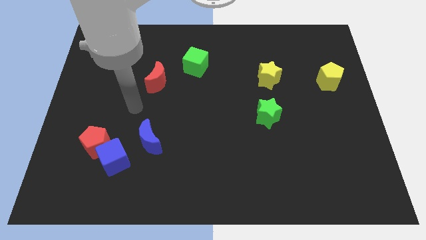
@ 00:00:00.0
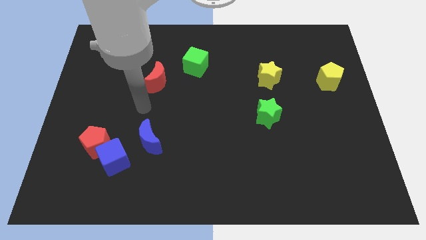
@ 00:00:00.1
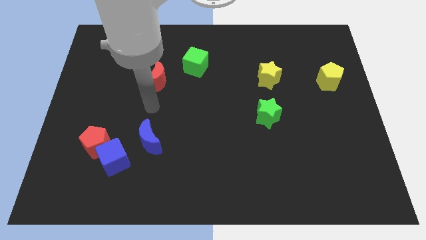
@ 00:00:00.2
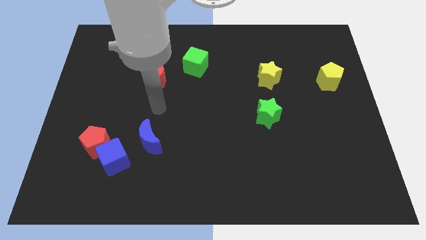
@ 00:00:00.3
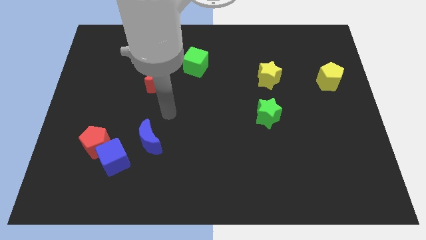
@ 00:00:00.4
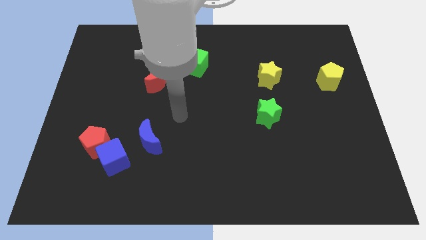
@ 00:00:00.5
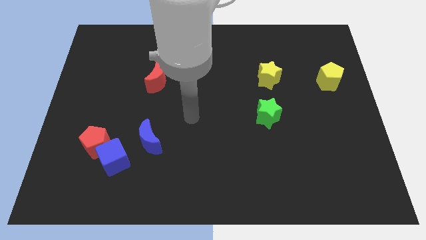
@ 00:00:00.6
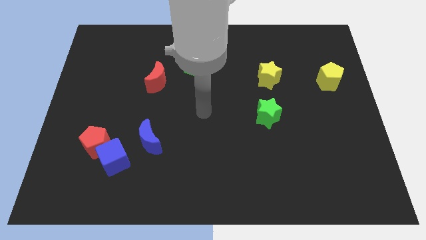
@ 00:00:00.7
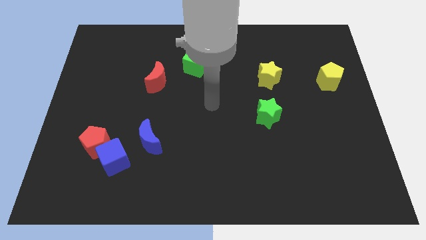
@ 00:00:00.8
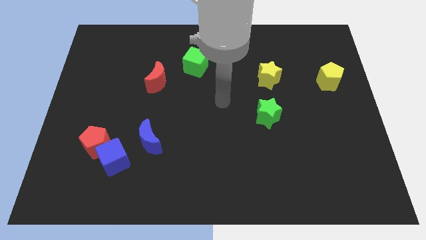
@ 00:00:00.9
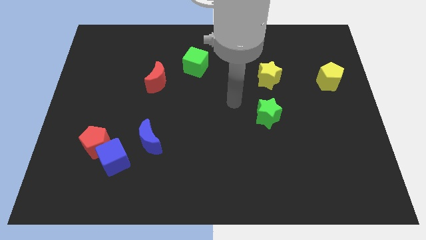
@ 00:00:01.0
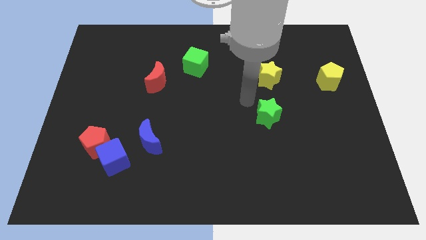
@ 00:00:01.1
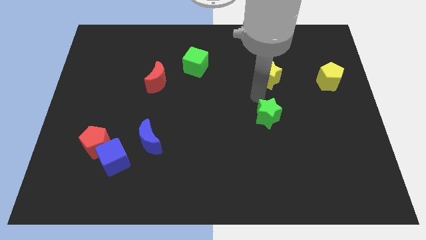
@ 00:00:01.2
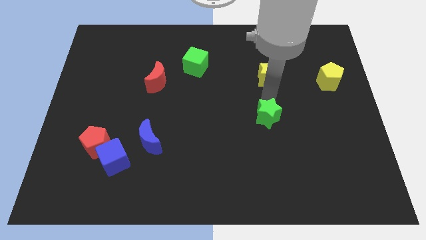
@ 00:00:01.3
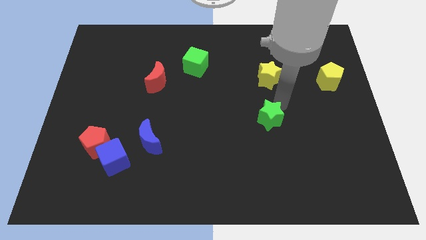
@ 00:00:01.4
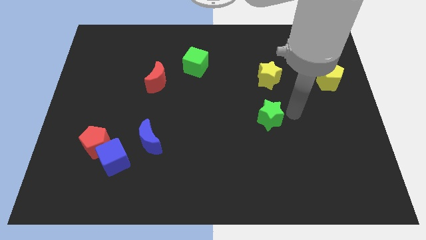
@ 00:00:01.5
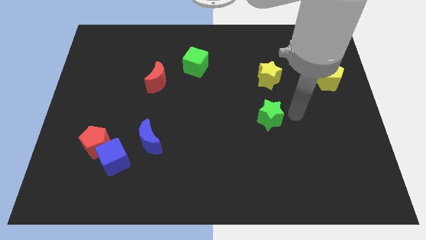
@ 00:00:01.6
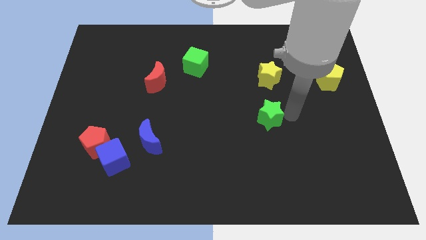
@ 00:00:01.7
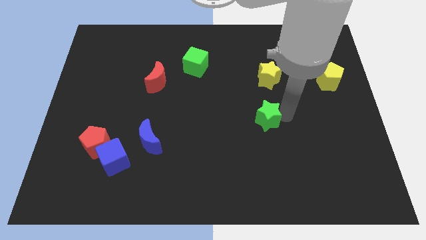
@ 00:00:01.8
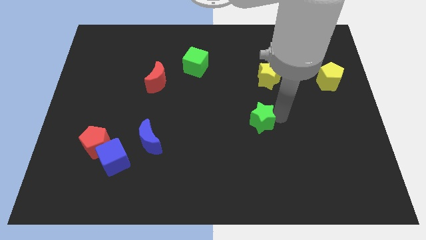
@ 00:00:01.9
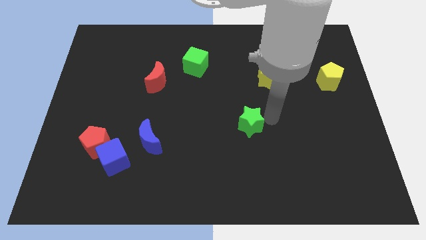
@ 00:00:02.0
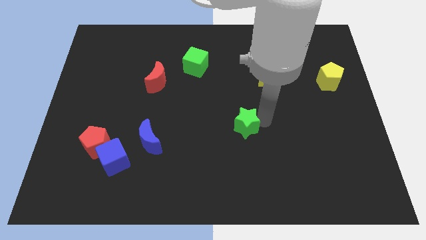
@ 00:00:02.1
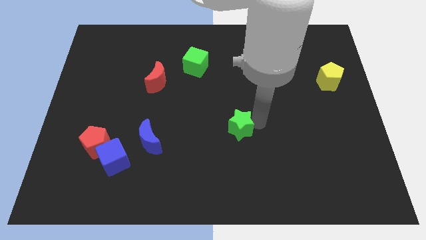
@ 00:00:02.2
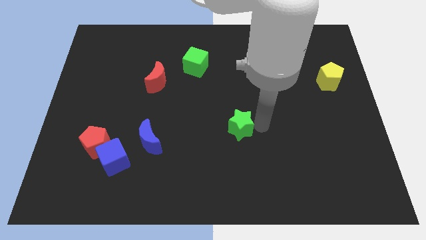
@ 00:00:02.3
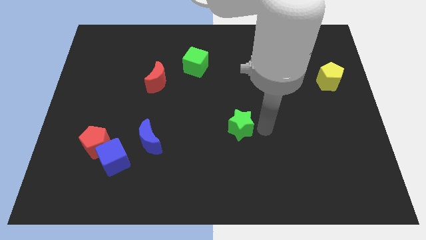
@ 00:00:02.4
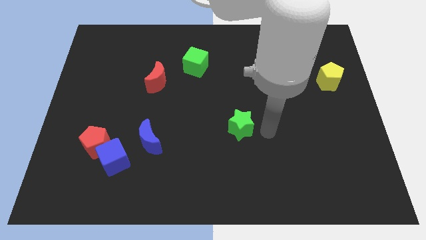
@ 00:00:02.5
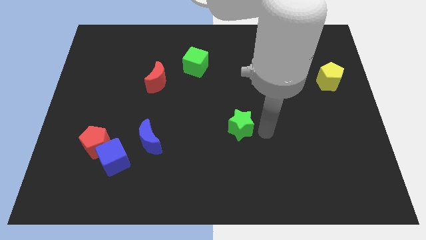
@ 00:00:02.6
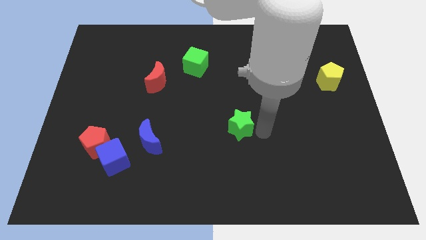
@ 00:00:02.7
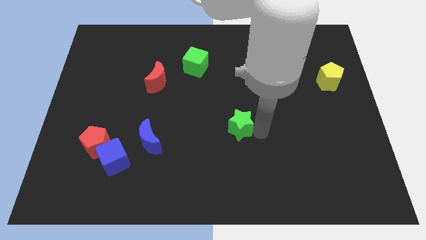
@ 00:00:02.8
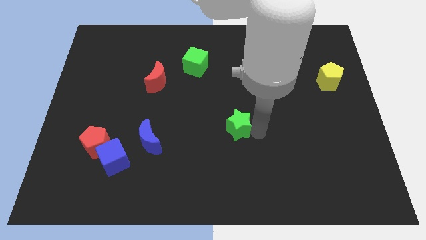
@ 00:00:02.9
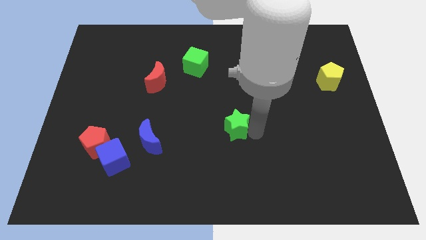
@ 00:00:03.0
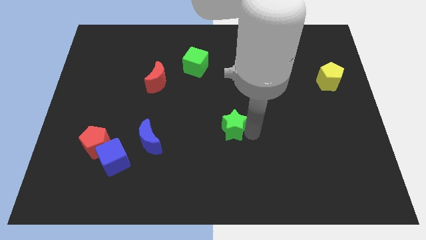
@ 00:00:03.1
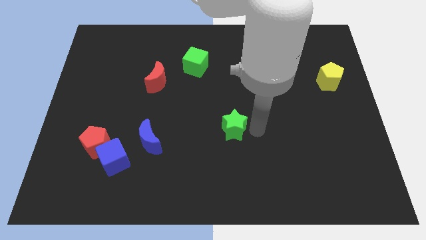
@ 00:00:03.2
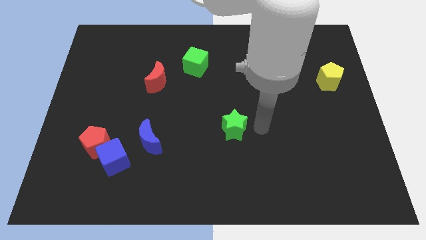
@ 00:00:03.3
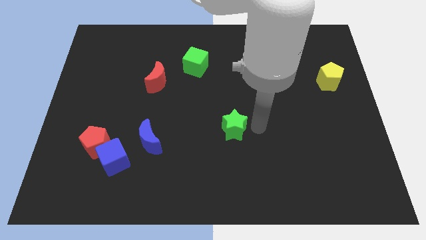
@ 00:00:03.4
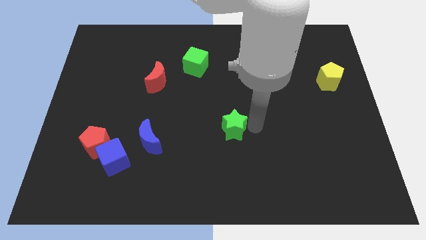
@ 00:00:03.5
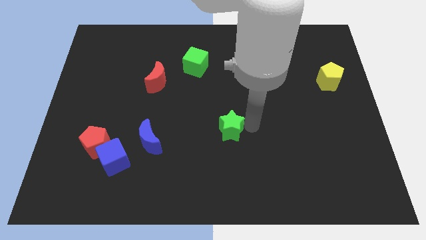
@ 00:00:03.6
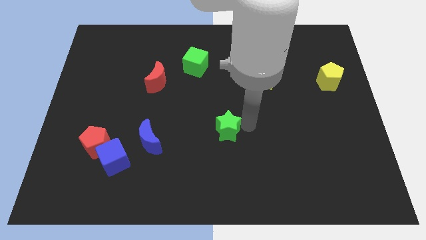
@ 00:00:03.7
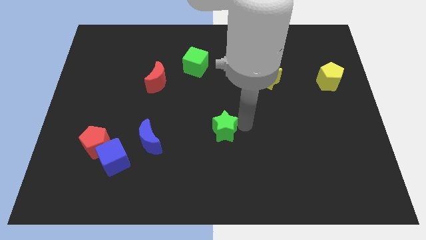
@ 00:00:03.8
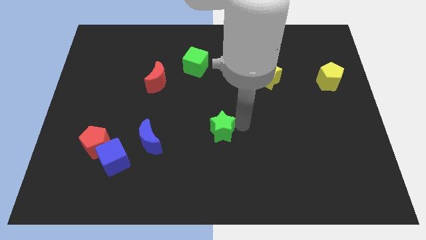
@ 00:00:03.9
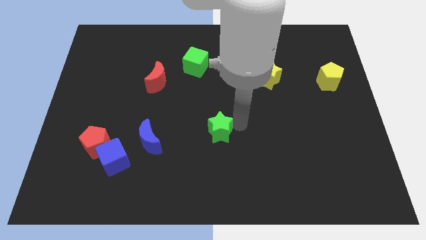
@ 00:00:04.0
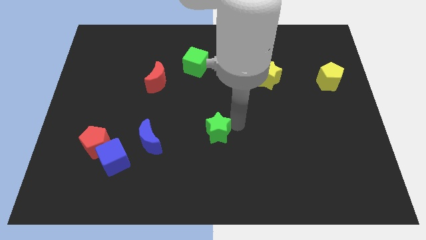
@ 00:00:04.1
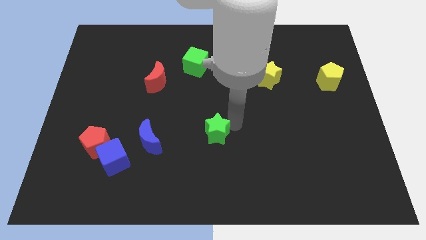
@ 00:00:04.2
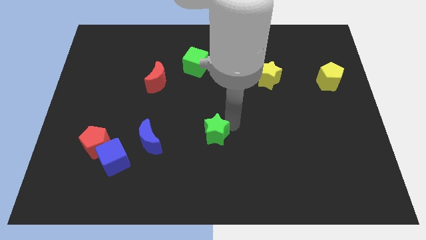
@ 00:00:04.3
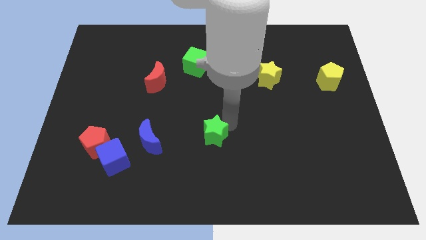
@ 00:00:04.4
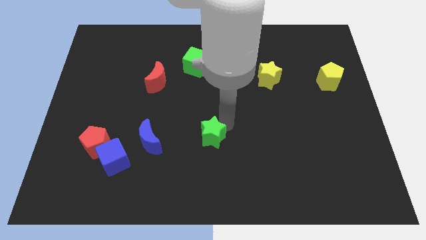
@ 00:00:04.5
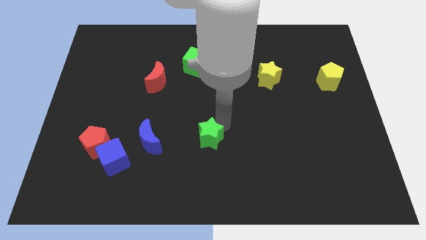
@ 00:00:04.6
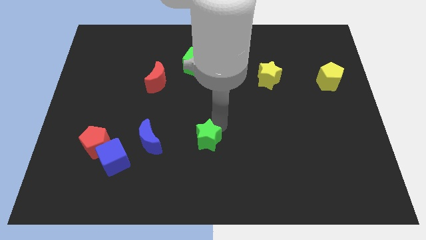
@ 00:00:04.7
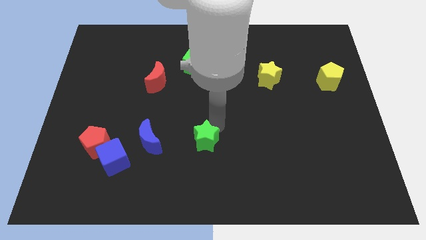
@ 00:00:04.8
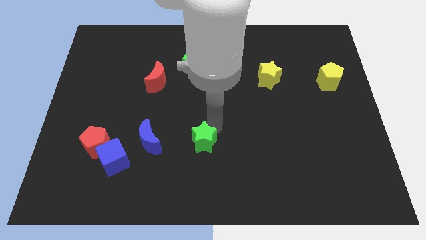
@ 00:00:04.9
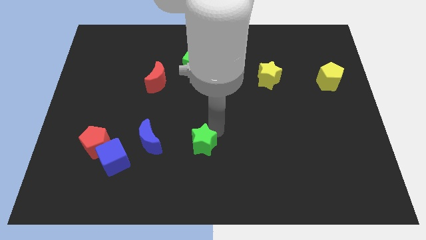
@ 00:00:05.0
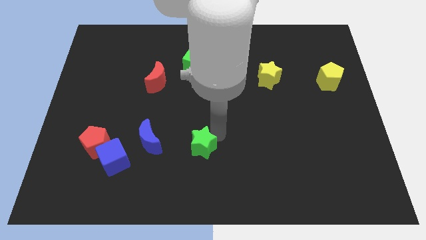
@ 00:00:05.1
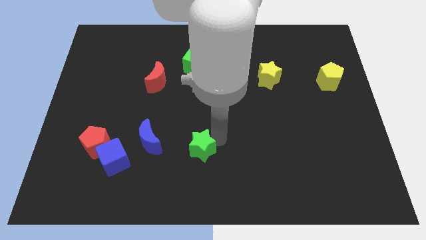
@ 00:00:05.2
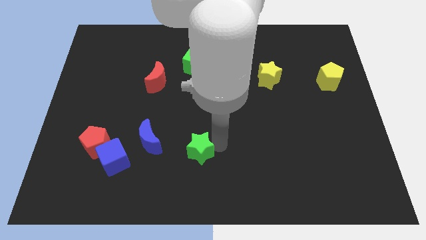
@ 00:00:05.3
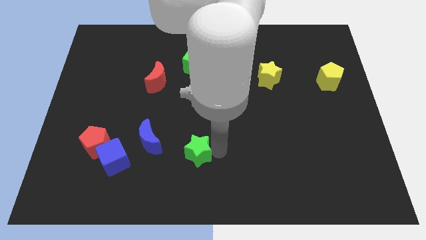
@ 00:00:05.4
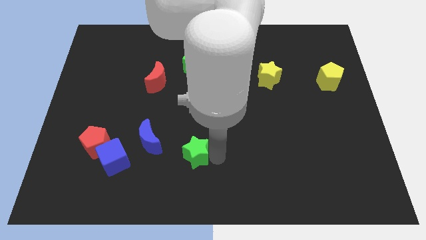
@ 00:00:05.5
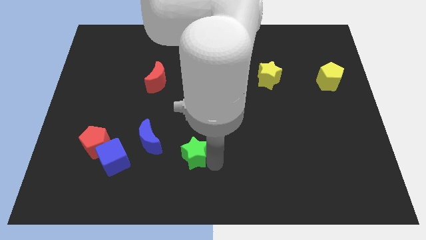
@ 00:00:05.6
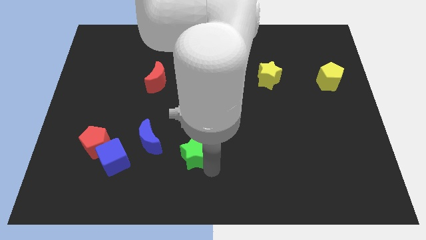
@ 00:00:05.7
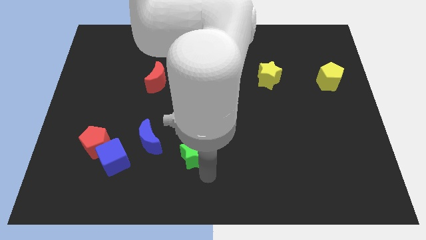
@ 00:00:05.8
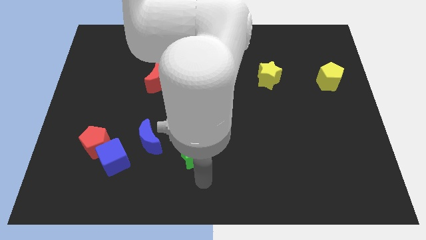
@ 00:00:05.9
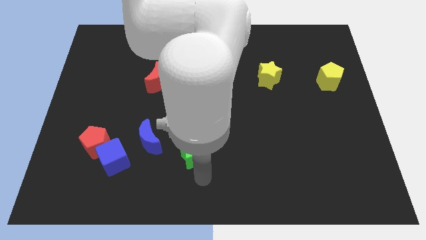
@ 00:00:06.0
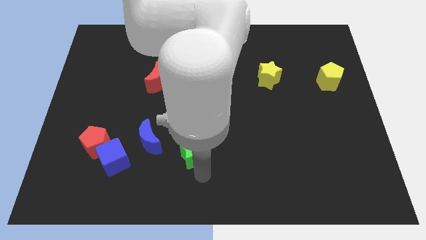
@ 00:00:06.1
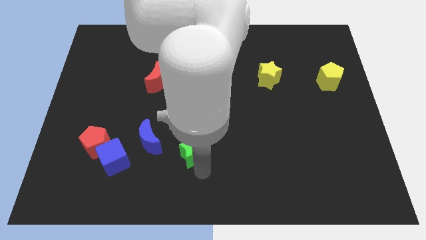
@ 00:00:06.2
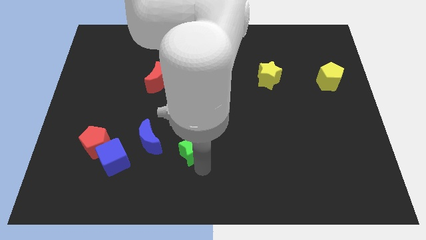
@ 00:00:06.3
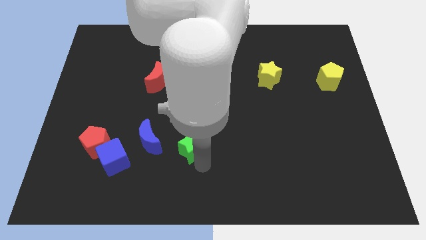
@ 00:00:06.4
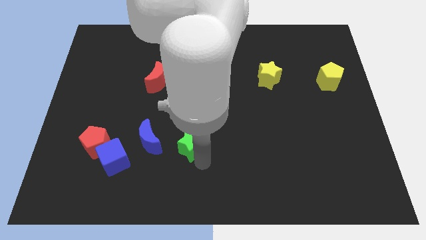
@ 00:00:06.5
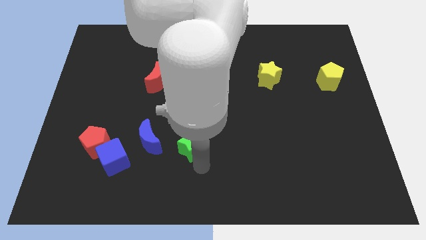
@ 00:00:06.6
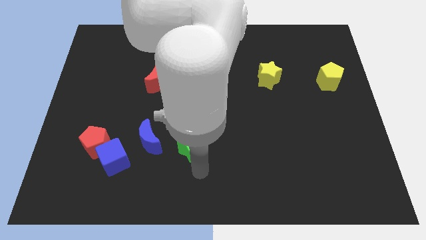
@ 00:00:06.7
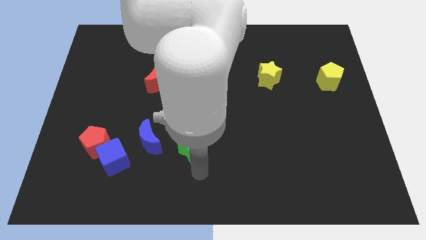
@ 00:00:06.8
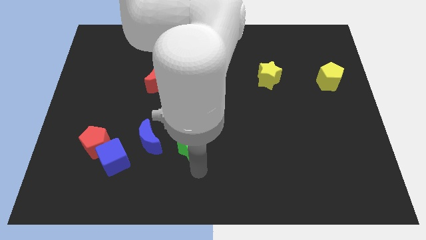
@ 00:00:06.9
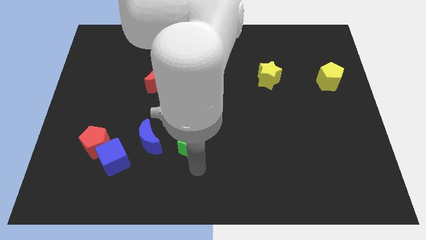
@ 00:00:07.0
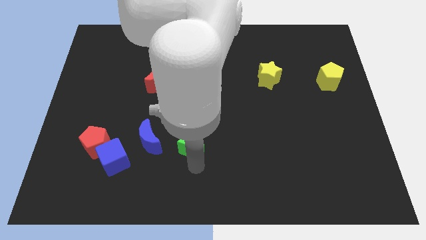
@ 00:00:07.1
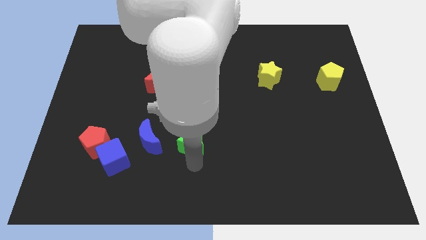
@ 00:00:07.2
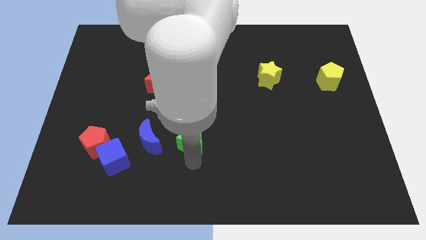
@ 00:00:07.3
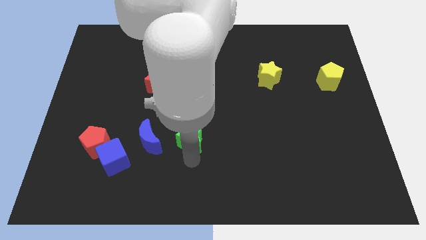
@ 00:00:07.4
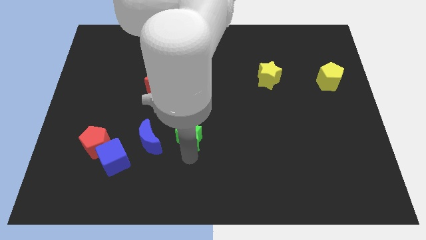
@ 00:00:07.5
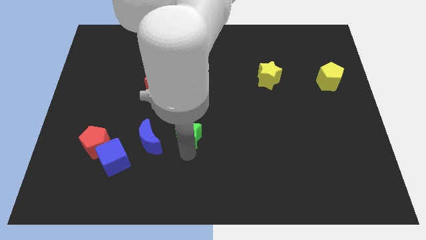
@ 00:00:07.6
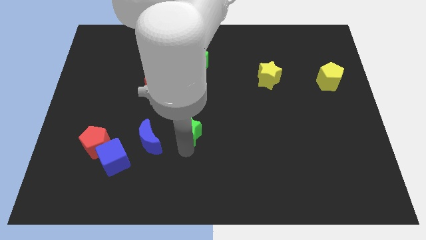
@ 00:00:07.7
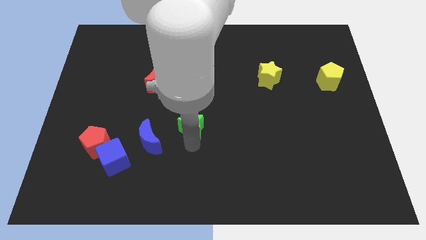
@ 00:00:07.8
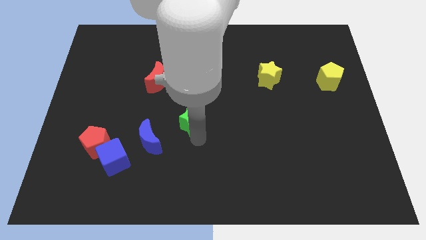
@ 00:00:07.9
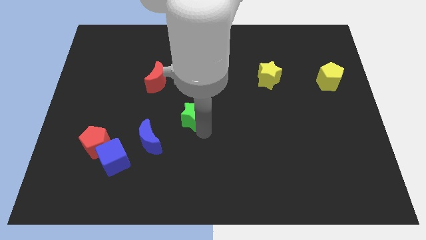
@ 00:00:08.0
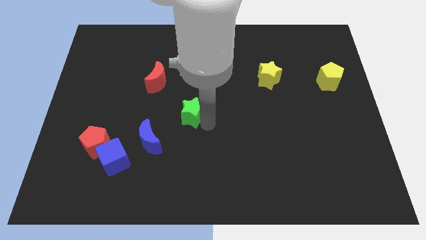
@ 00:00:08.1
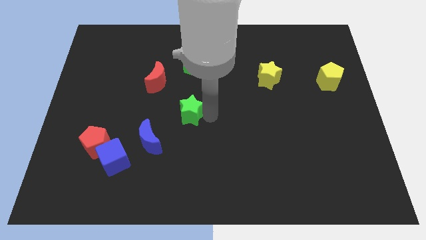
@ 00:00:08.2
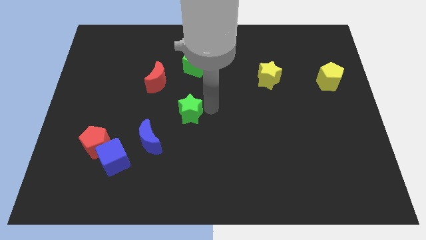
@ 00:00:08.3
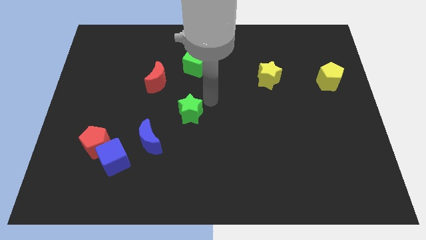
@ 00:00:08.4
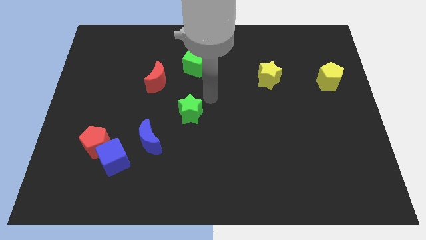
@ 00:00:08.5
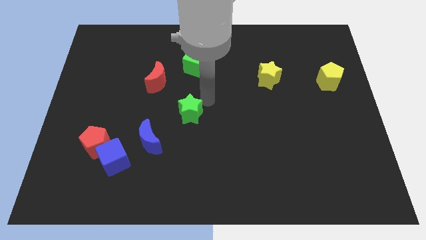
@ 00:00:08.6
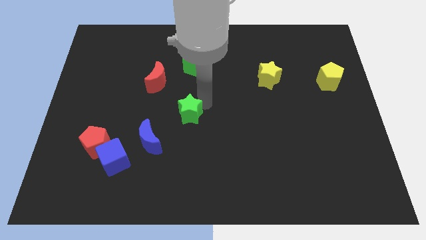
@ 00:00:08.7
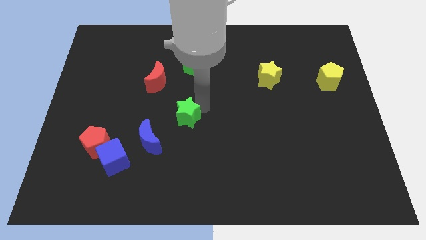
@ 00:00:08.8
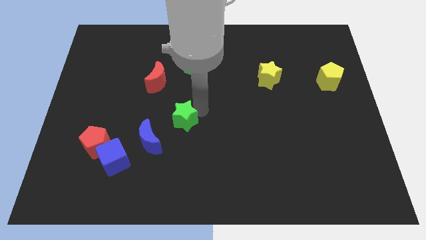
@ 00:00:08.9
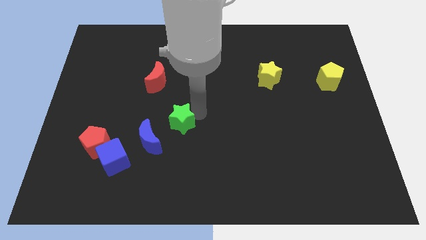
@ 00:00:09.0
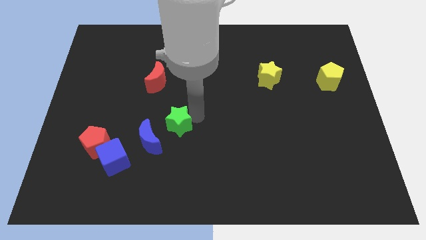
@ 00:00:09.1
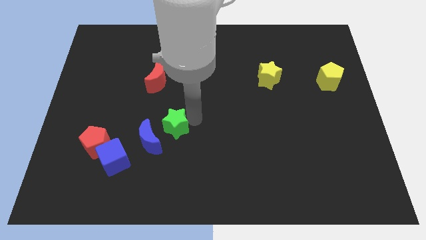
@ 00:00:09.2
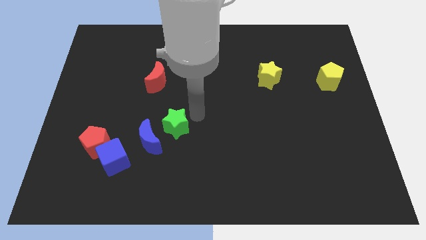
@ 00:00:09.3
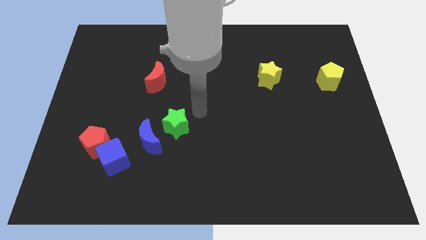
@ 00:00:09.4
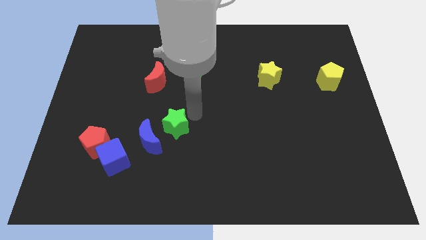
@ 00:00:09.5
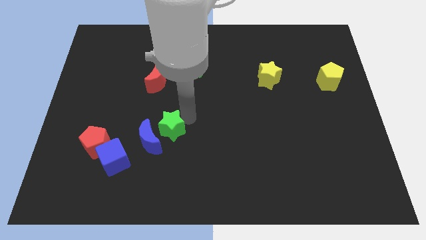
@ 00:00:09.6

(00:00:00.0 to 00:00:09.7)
put the green star close to the blue moon
